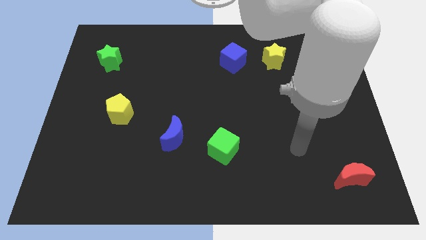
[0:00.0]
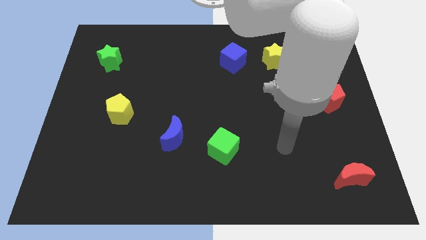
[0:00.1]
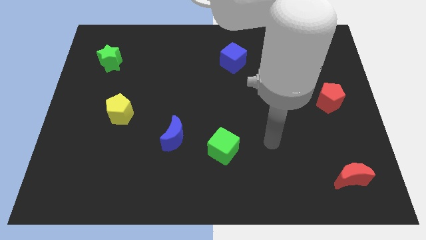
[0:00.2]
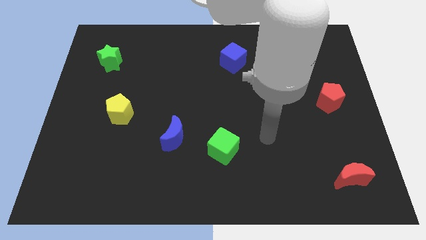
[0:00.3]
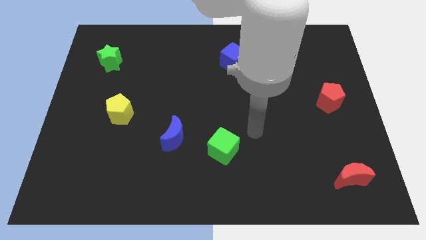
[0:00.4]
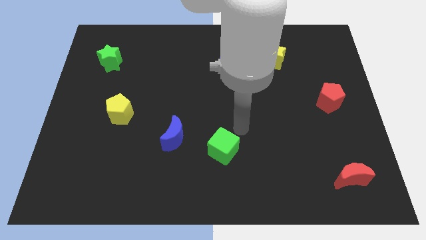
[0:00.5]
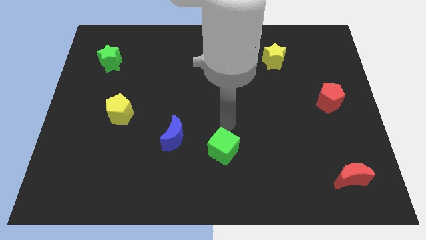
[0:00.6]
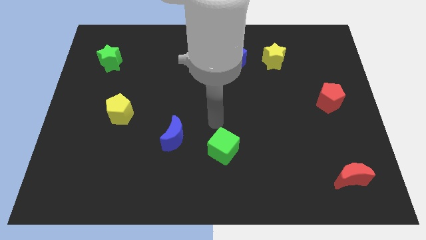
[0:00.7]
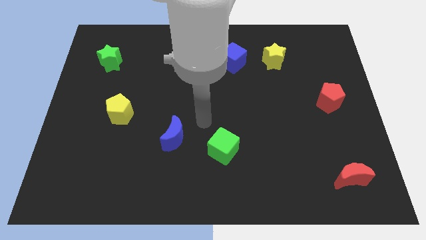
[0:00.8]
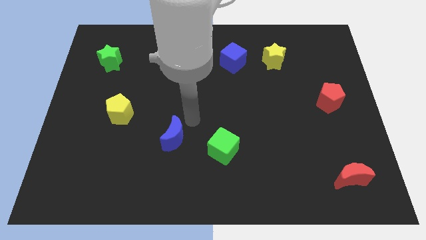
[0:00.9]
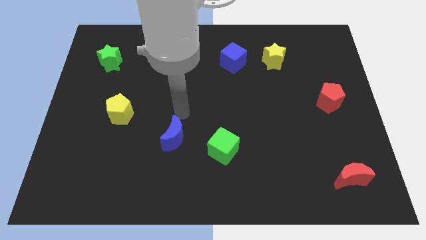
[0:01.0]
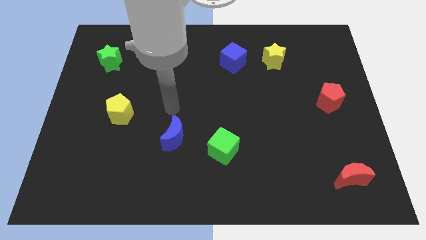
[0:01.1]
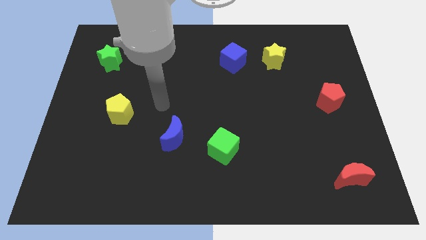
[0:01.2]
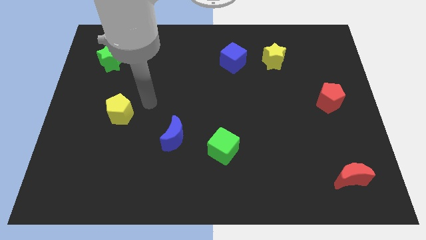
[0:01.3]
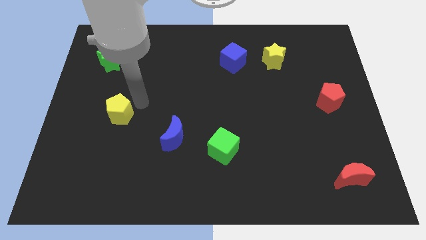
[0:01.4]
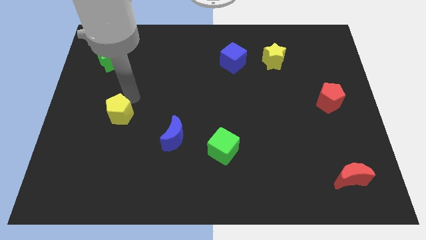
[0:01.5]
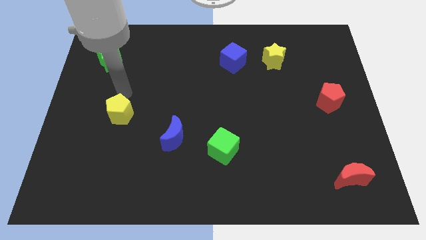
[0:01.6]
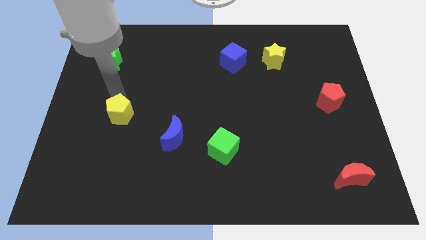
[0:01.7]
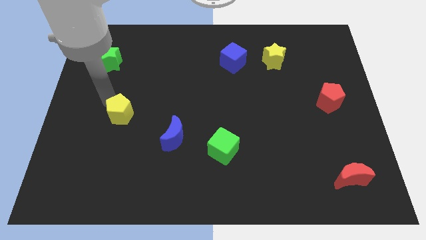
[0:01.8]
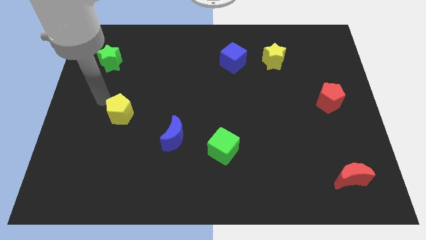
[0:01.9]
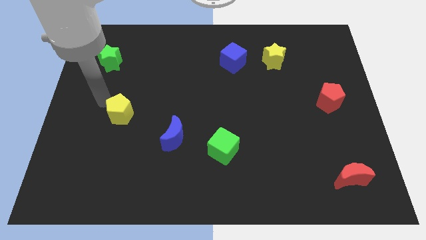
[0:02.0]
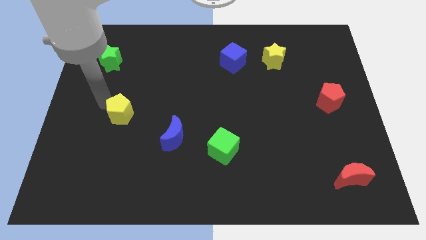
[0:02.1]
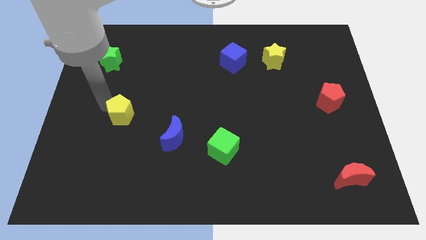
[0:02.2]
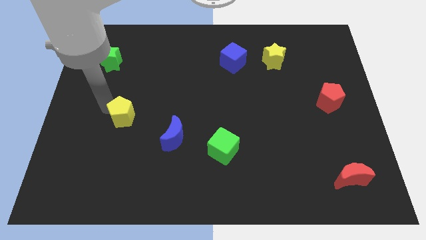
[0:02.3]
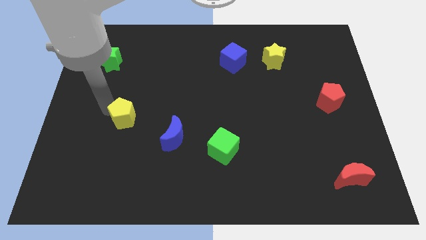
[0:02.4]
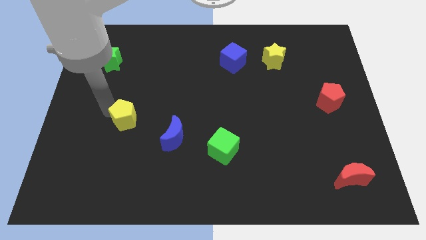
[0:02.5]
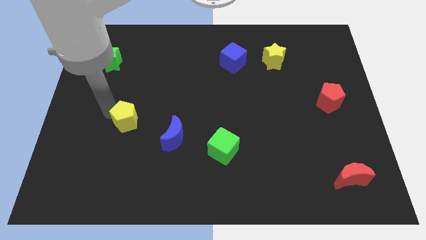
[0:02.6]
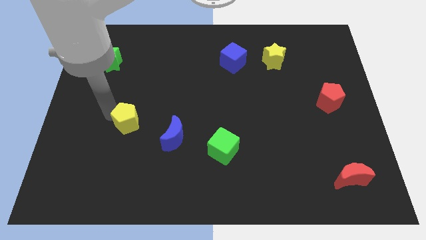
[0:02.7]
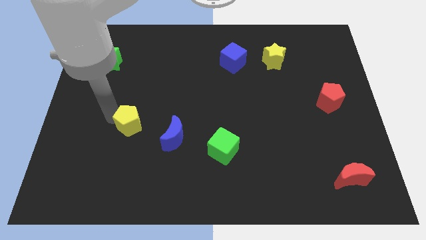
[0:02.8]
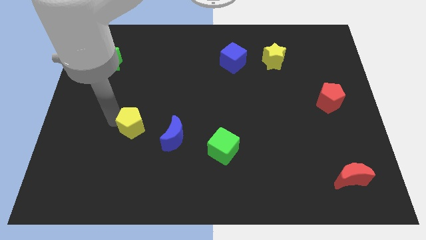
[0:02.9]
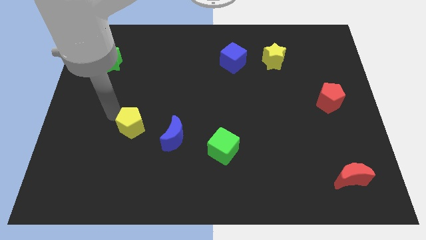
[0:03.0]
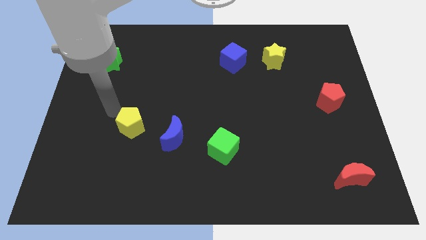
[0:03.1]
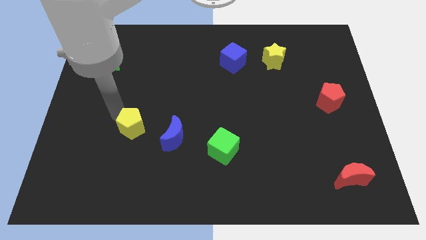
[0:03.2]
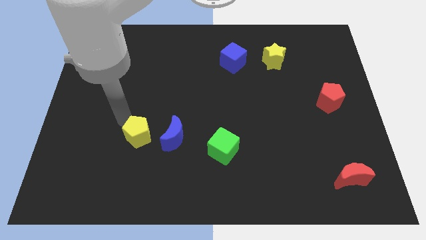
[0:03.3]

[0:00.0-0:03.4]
push the yellow pentagon a bit down and to the right

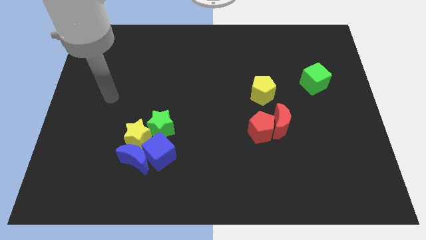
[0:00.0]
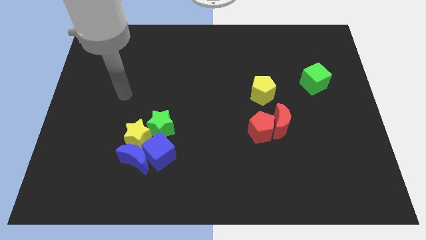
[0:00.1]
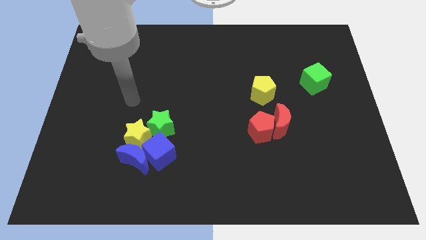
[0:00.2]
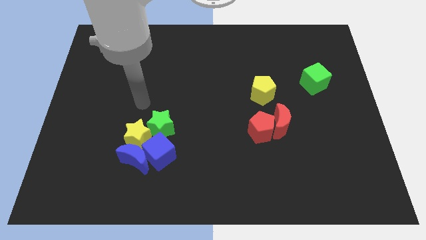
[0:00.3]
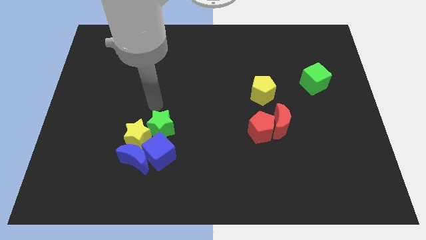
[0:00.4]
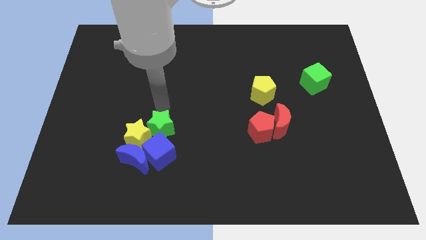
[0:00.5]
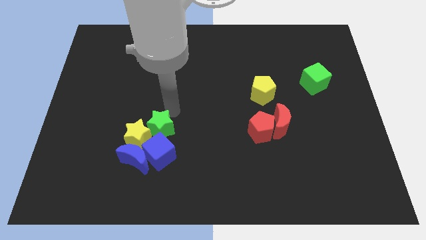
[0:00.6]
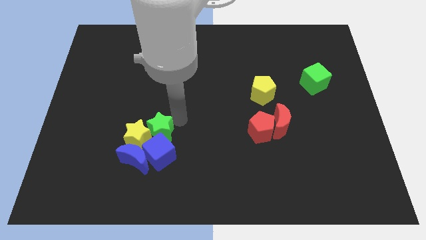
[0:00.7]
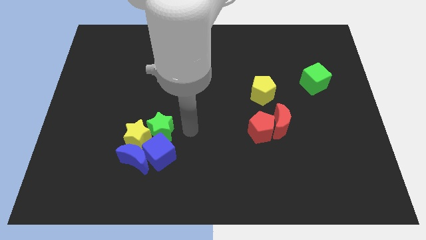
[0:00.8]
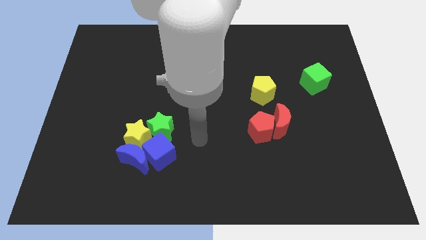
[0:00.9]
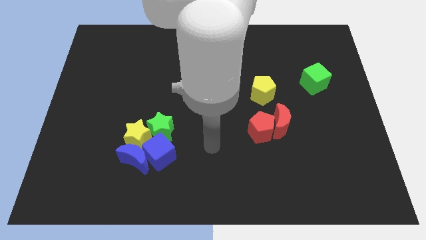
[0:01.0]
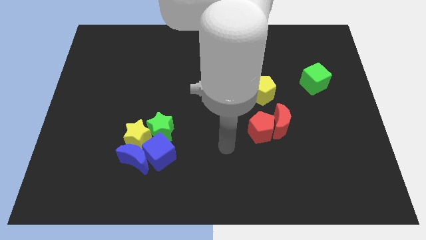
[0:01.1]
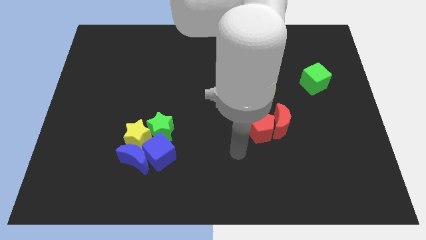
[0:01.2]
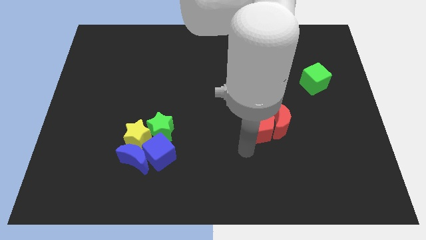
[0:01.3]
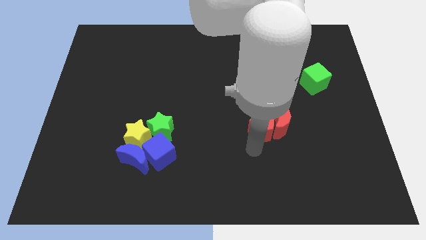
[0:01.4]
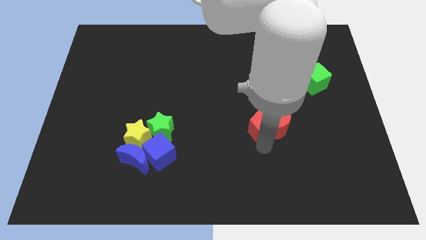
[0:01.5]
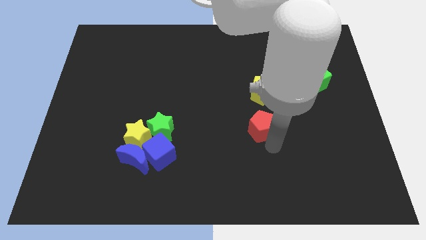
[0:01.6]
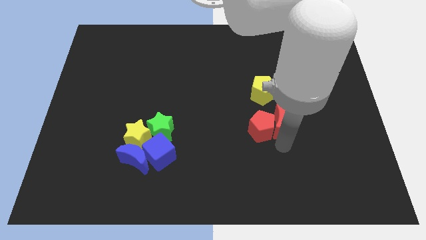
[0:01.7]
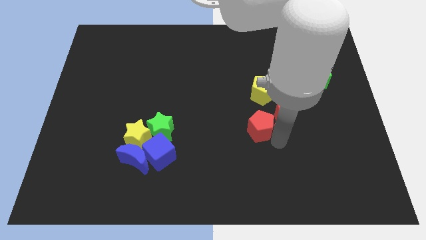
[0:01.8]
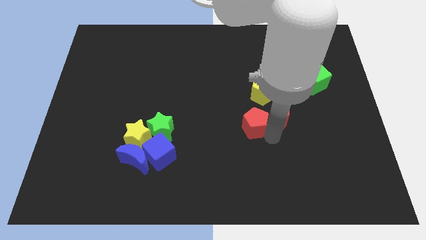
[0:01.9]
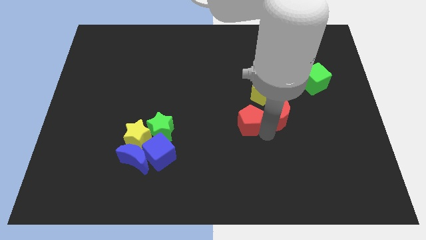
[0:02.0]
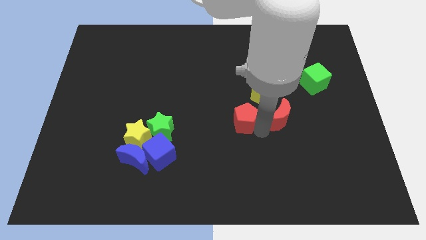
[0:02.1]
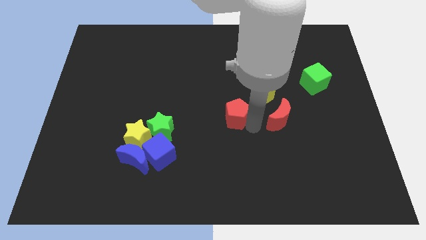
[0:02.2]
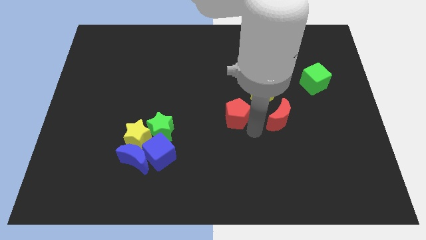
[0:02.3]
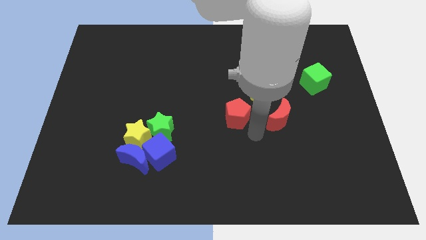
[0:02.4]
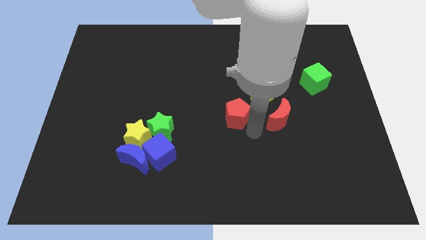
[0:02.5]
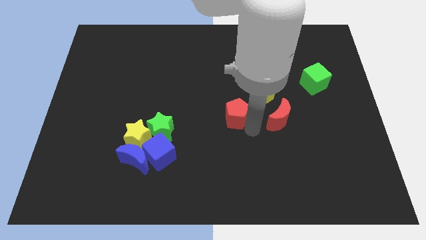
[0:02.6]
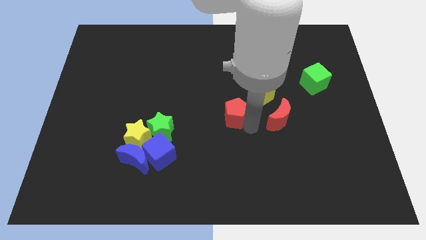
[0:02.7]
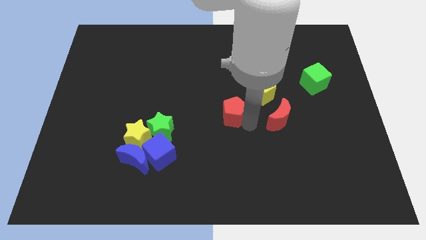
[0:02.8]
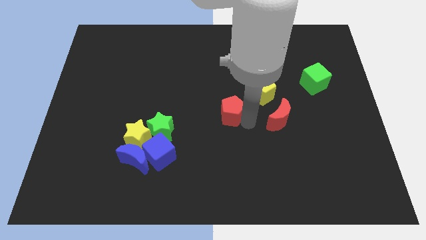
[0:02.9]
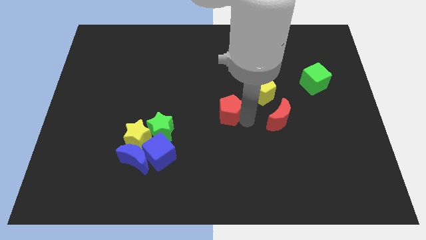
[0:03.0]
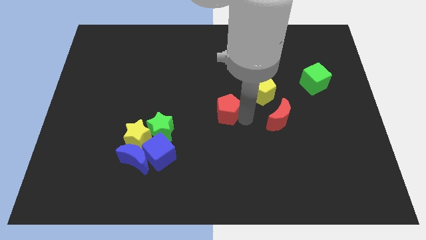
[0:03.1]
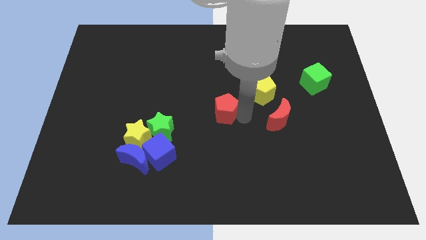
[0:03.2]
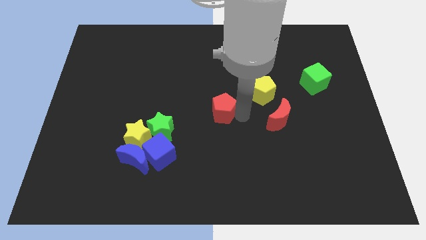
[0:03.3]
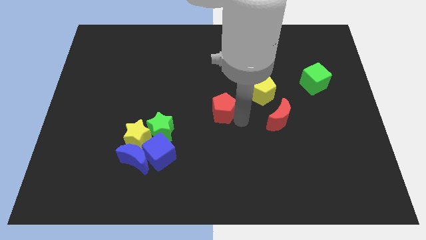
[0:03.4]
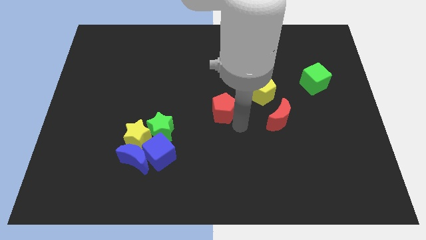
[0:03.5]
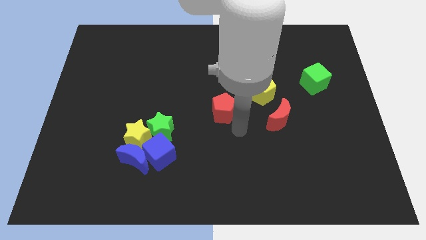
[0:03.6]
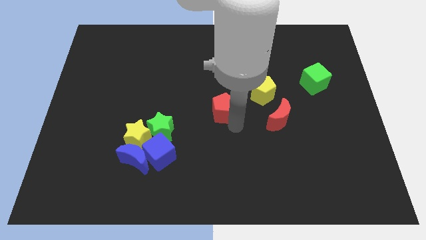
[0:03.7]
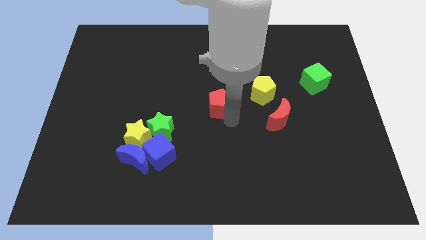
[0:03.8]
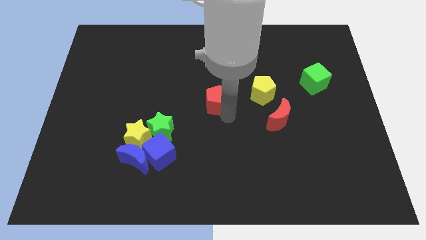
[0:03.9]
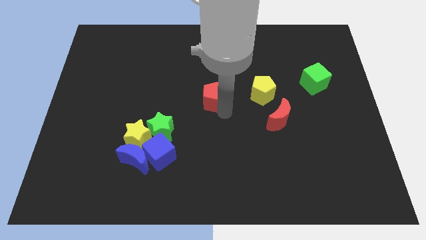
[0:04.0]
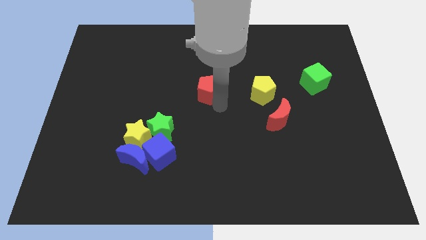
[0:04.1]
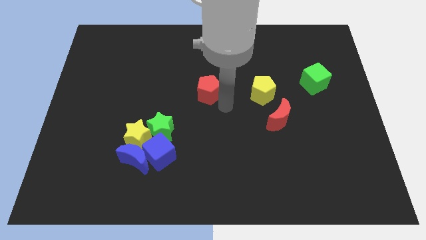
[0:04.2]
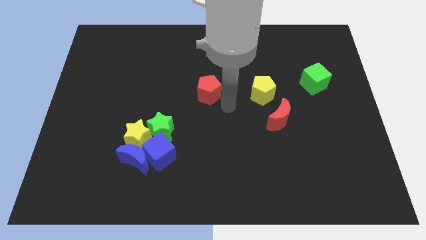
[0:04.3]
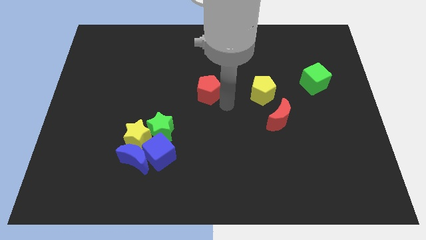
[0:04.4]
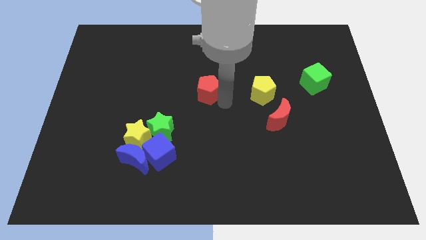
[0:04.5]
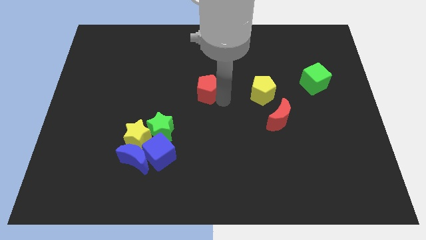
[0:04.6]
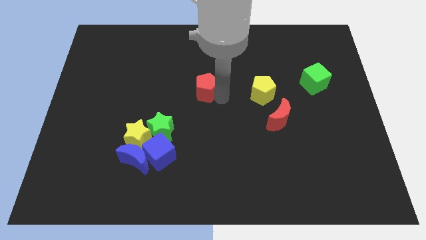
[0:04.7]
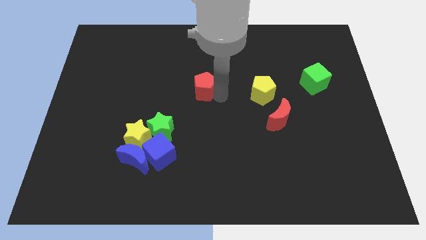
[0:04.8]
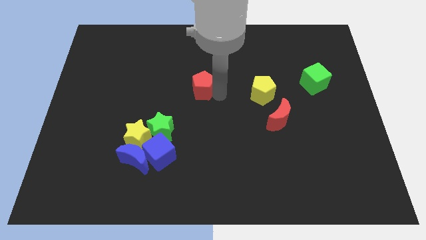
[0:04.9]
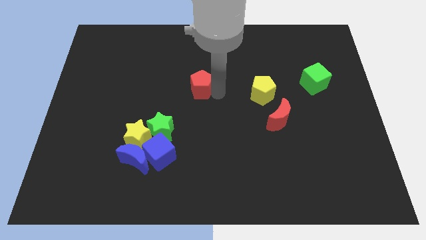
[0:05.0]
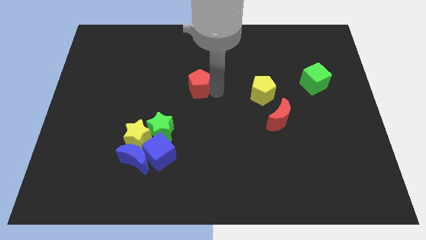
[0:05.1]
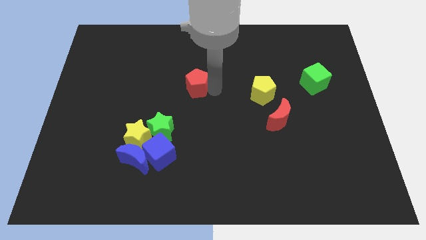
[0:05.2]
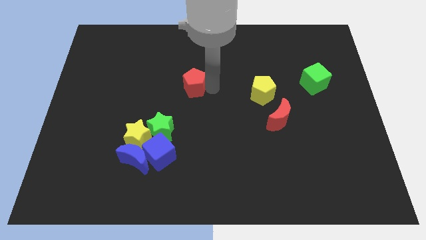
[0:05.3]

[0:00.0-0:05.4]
move the red pentagon diagonally up and to the left
